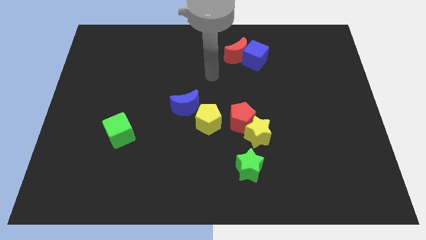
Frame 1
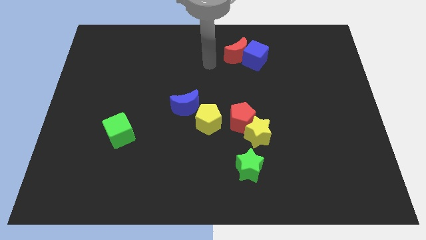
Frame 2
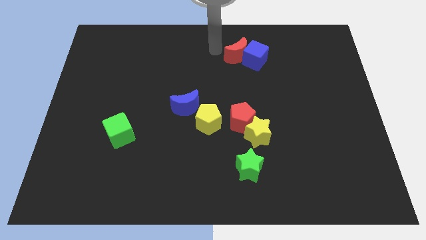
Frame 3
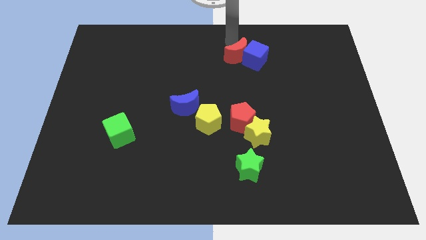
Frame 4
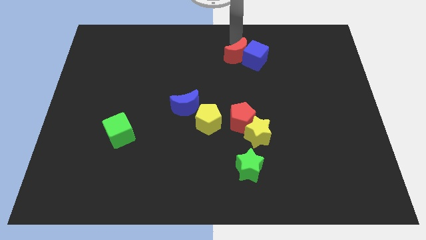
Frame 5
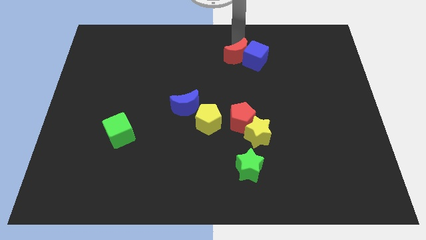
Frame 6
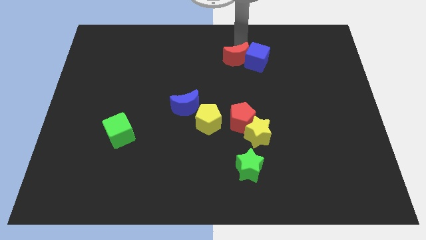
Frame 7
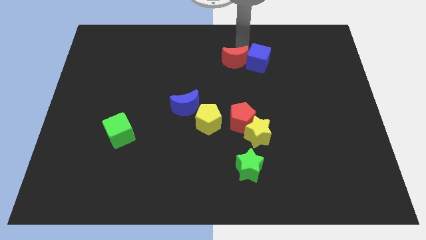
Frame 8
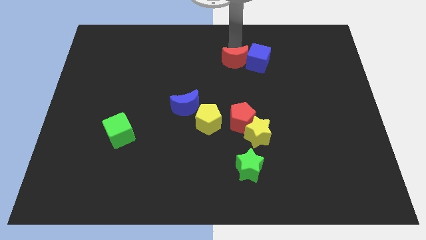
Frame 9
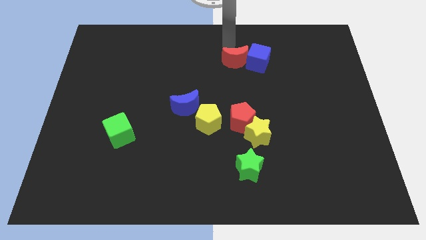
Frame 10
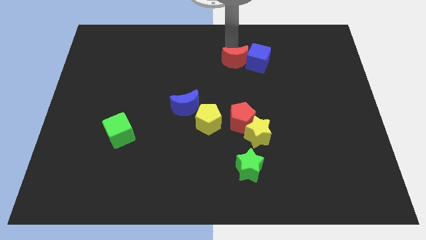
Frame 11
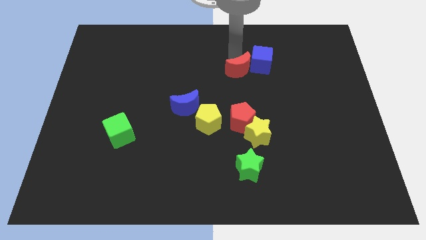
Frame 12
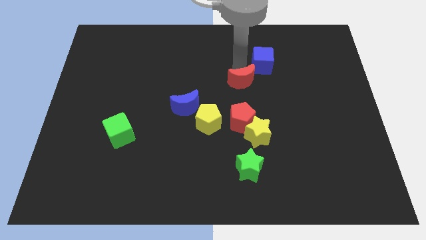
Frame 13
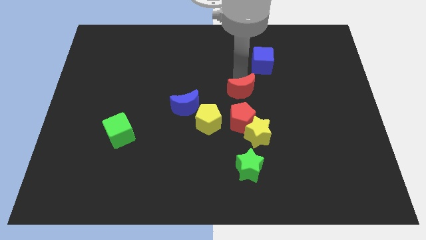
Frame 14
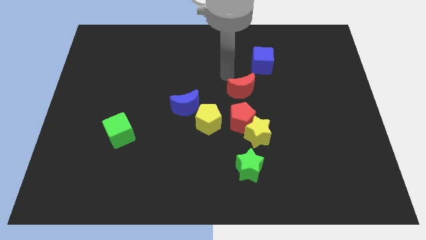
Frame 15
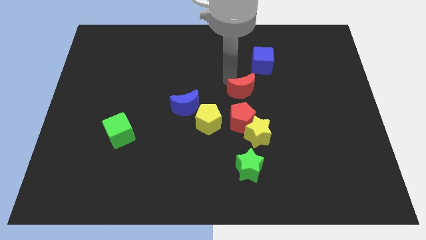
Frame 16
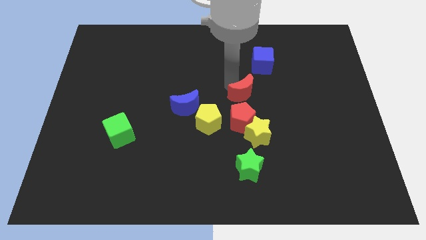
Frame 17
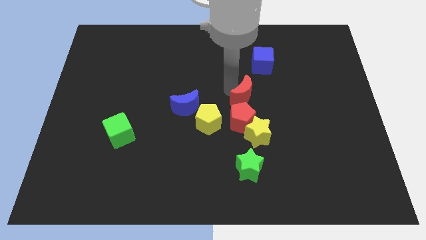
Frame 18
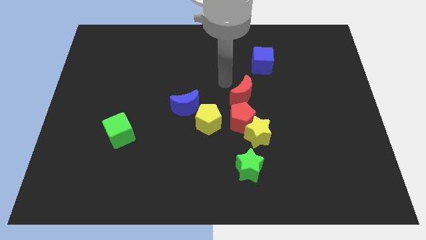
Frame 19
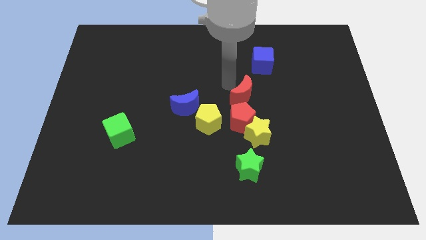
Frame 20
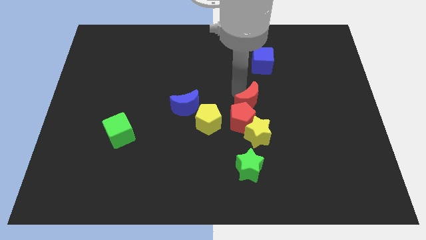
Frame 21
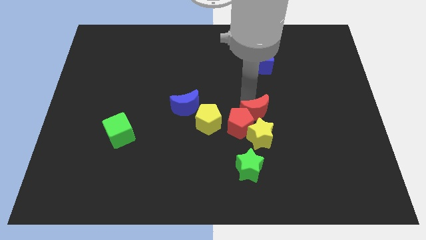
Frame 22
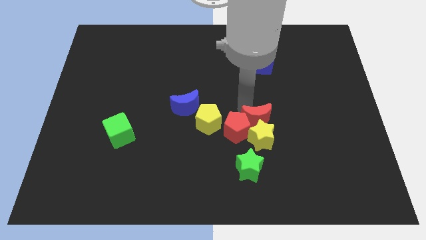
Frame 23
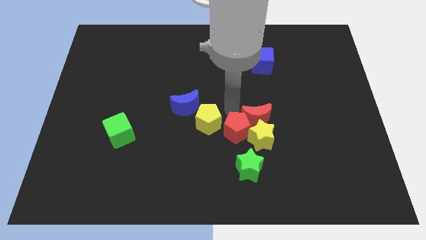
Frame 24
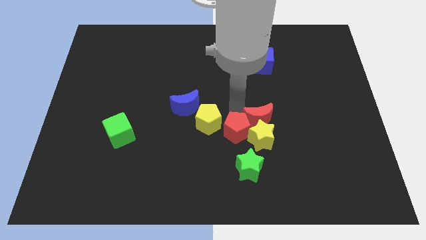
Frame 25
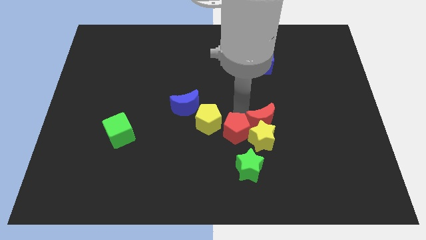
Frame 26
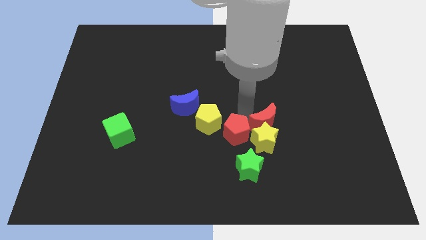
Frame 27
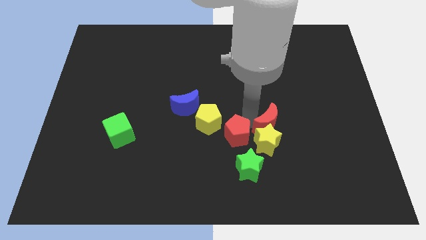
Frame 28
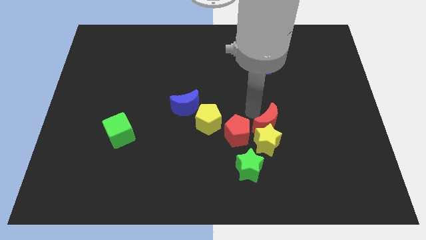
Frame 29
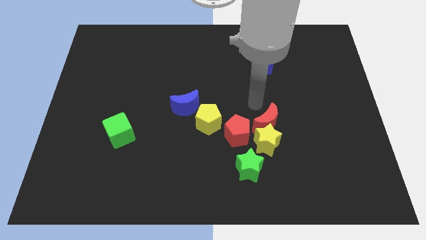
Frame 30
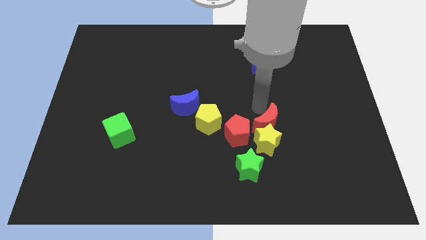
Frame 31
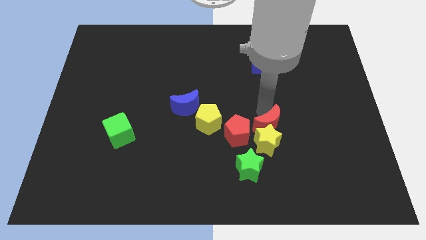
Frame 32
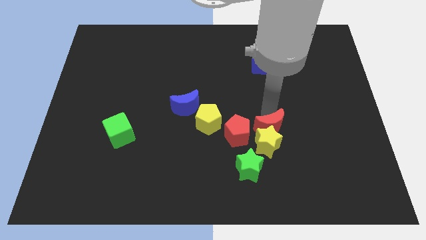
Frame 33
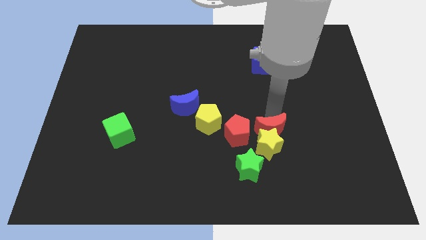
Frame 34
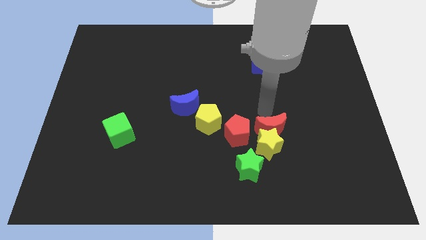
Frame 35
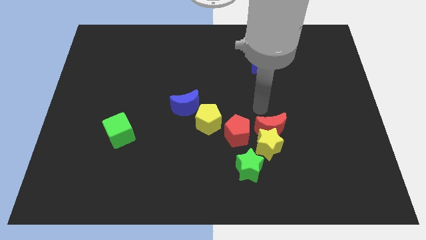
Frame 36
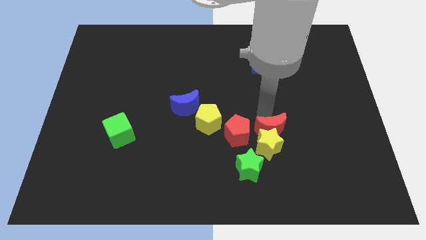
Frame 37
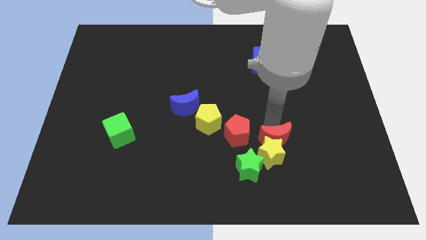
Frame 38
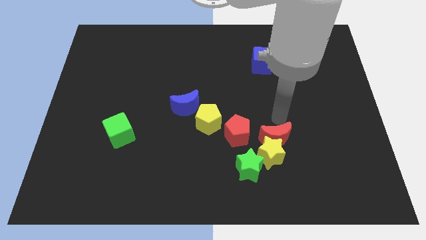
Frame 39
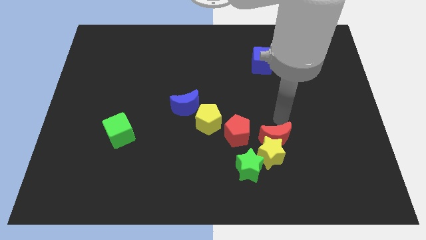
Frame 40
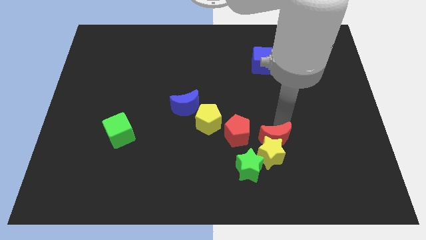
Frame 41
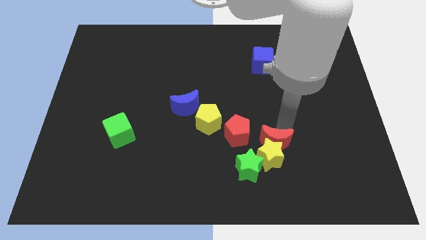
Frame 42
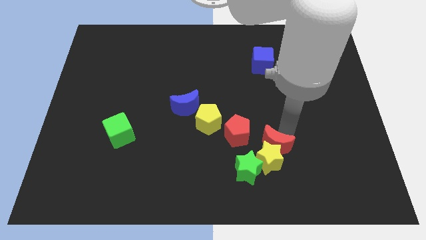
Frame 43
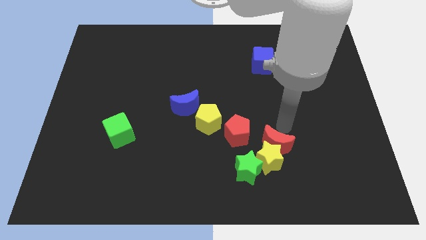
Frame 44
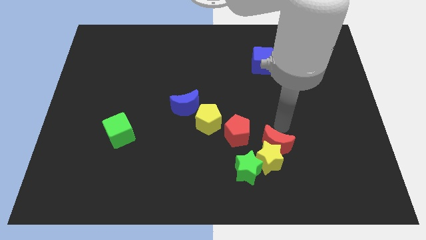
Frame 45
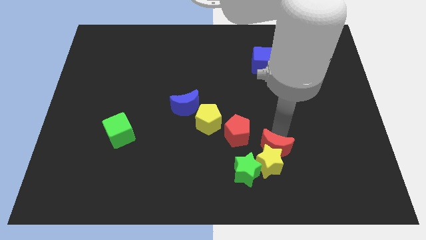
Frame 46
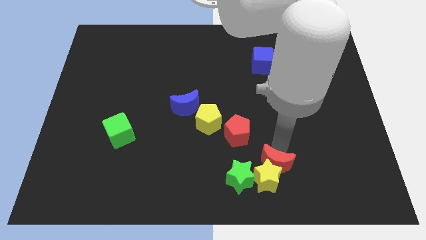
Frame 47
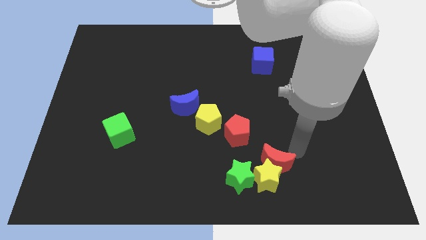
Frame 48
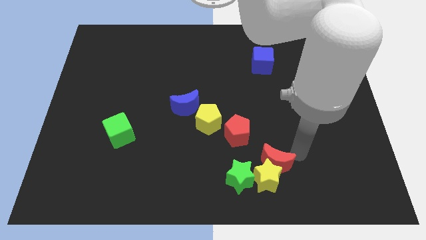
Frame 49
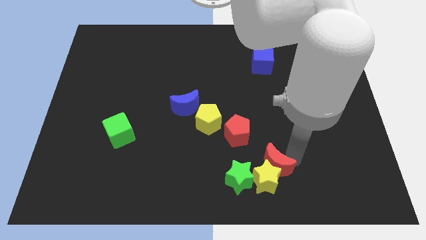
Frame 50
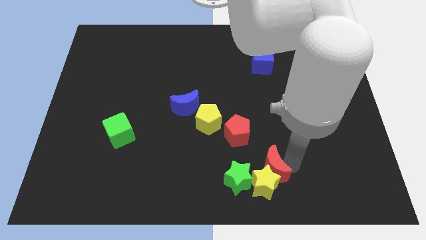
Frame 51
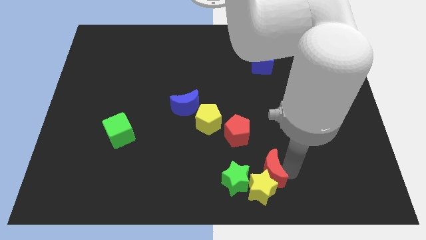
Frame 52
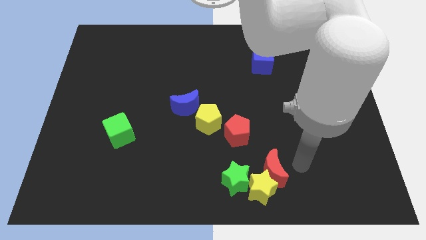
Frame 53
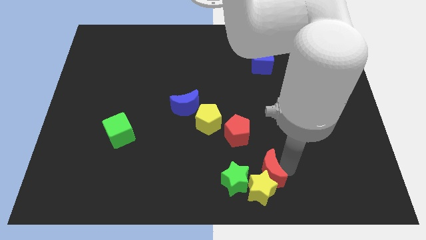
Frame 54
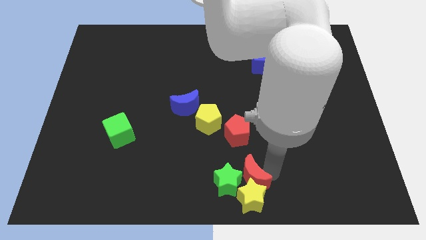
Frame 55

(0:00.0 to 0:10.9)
slide the red moon to the green star

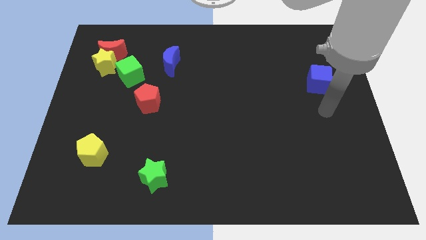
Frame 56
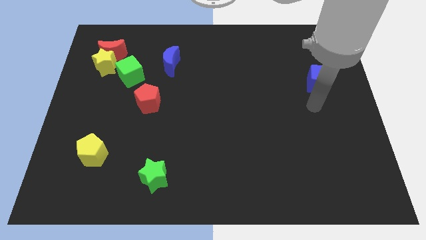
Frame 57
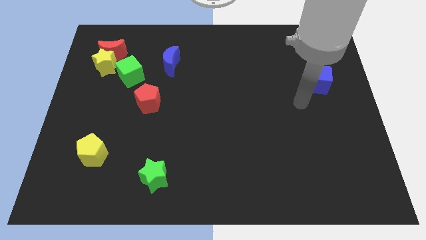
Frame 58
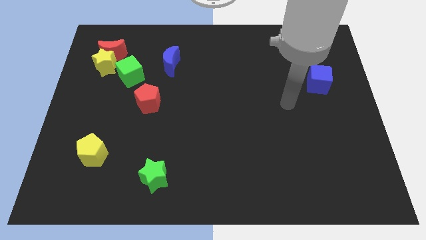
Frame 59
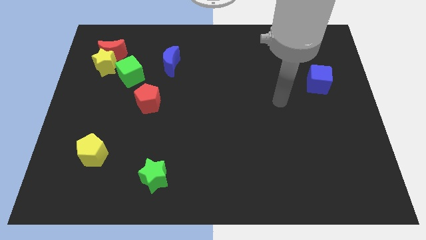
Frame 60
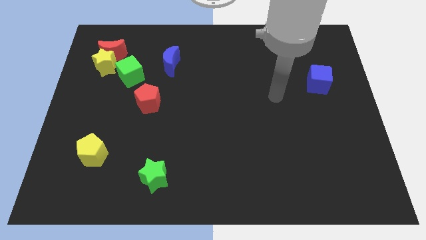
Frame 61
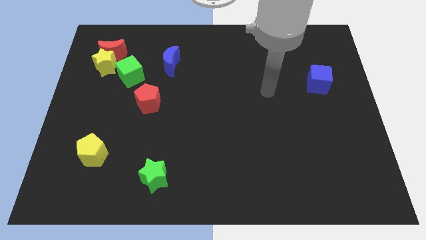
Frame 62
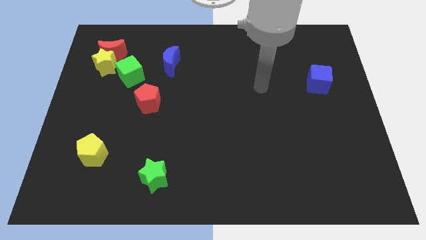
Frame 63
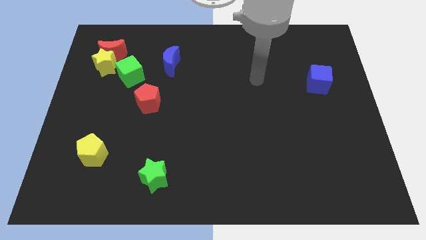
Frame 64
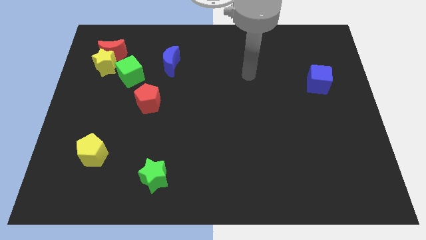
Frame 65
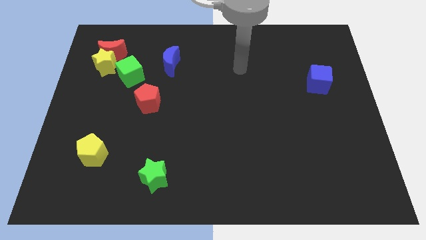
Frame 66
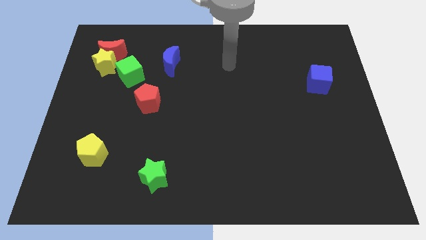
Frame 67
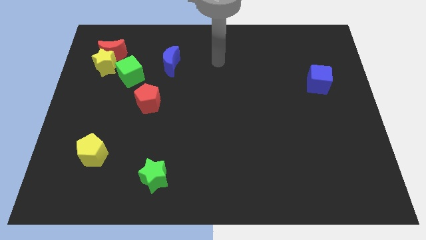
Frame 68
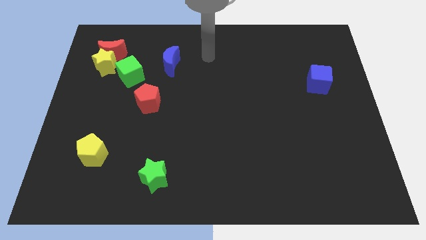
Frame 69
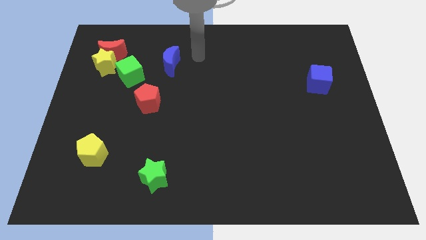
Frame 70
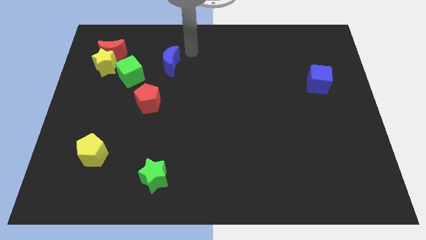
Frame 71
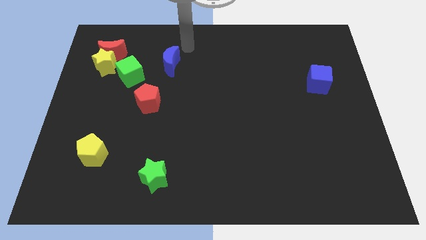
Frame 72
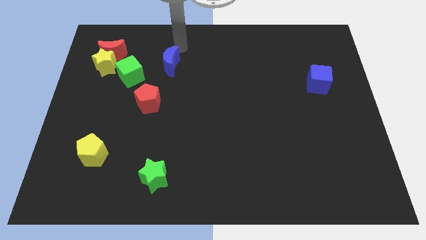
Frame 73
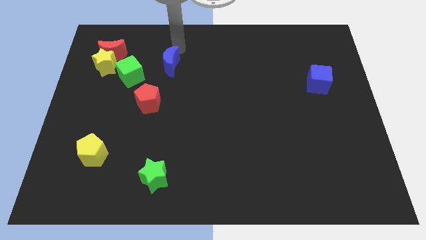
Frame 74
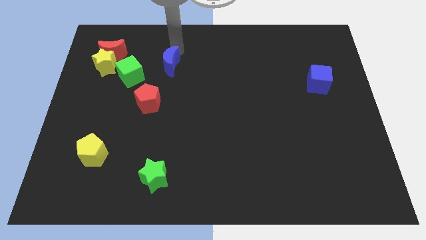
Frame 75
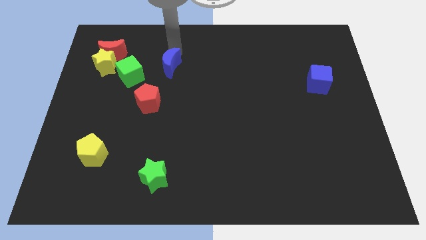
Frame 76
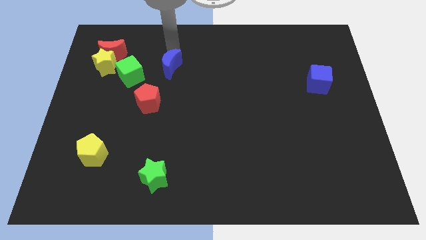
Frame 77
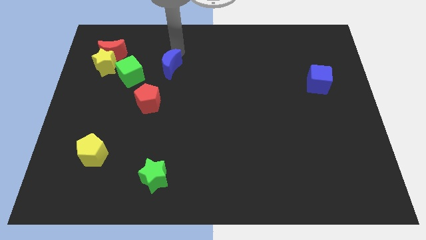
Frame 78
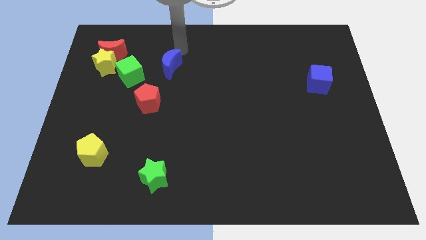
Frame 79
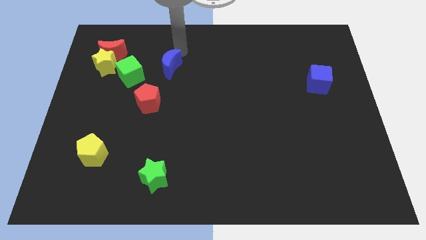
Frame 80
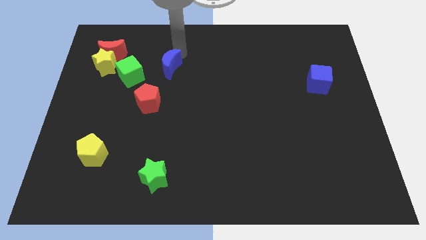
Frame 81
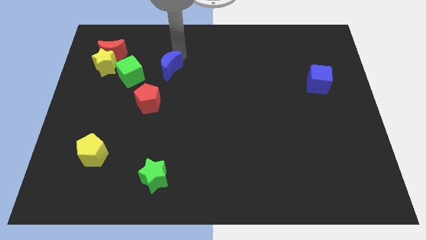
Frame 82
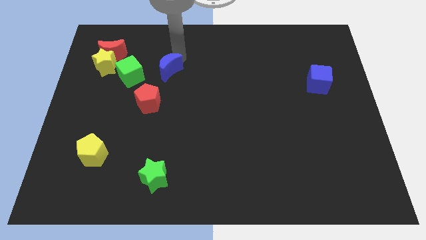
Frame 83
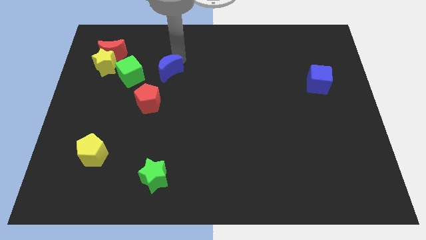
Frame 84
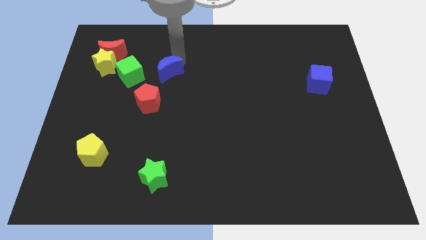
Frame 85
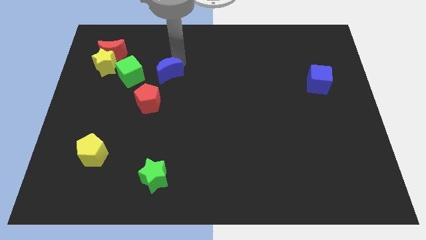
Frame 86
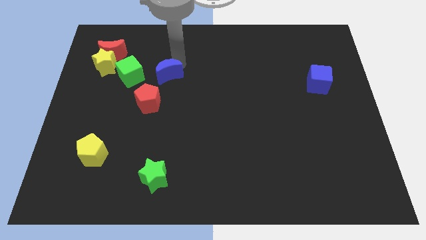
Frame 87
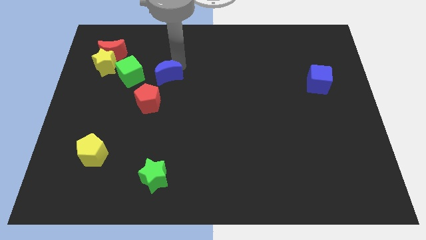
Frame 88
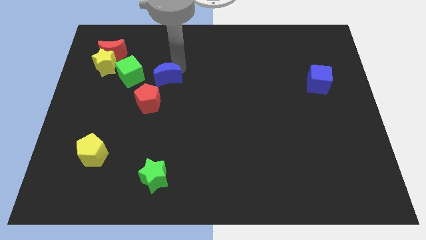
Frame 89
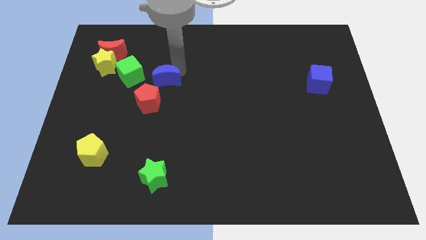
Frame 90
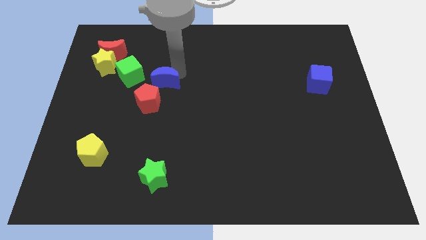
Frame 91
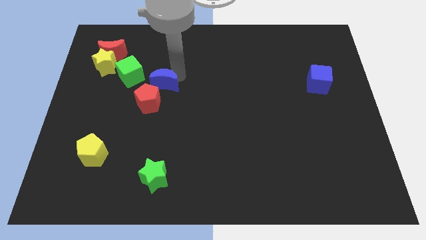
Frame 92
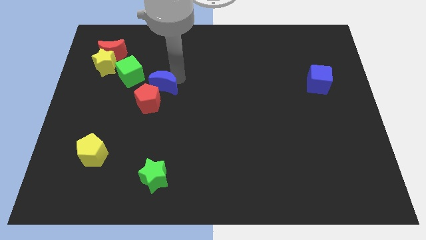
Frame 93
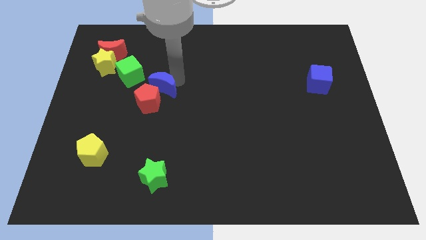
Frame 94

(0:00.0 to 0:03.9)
put the blue moon to the red pentagon
